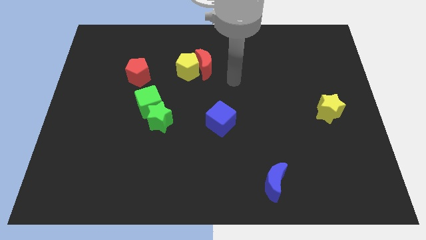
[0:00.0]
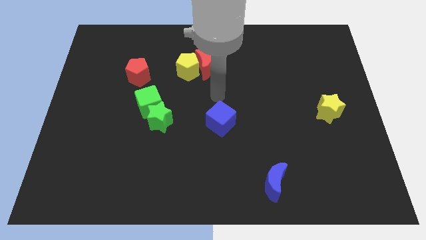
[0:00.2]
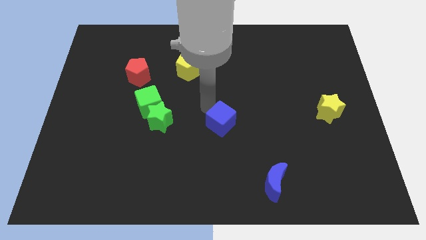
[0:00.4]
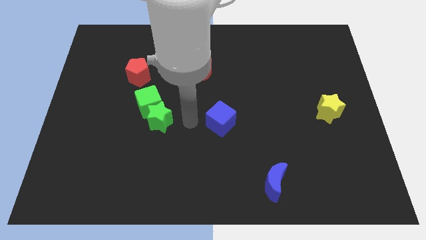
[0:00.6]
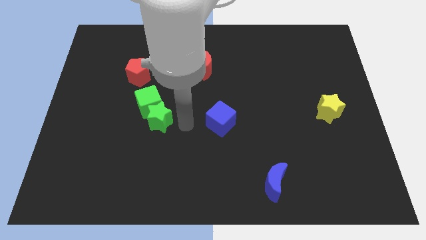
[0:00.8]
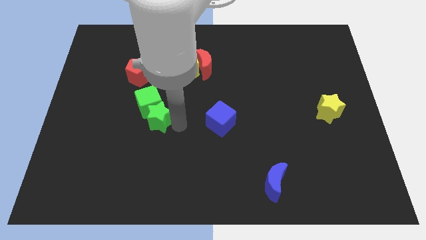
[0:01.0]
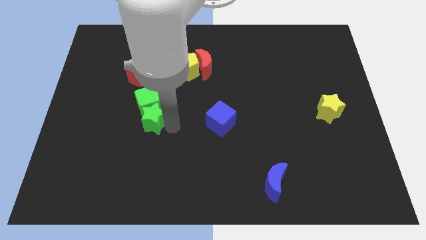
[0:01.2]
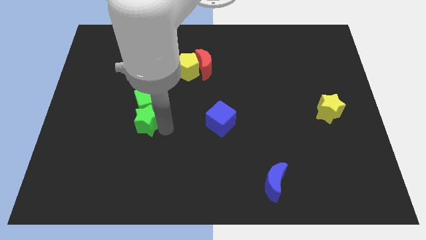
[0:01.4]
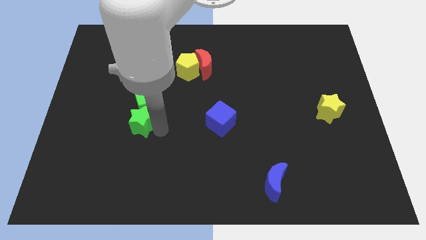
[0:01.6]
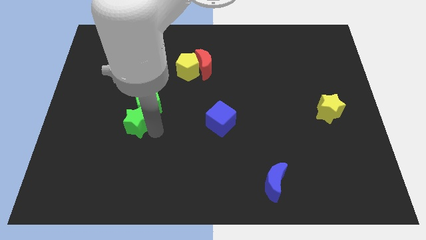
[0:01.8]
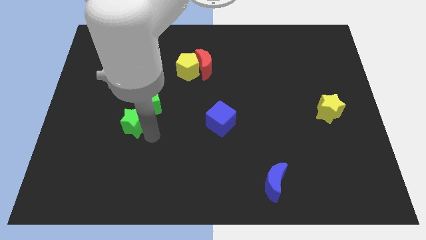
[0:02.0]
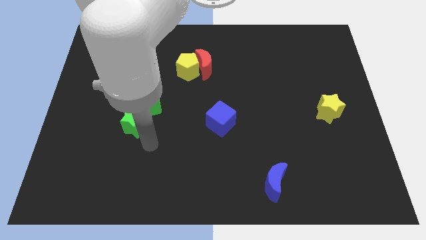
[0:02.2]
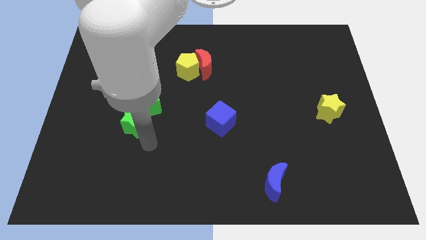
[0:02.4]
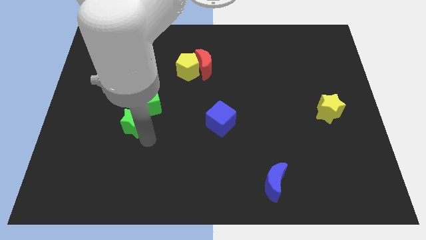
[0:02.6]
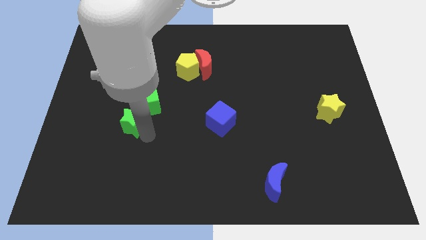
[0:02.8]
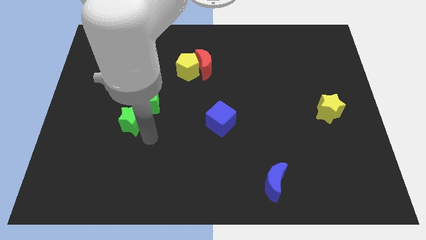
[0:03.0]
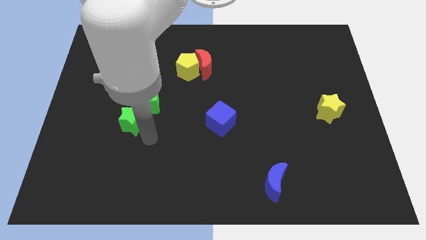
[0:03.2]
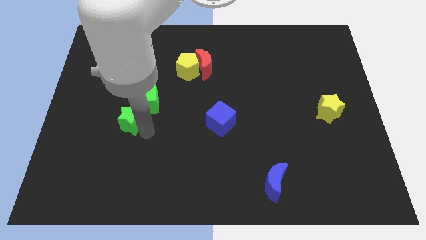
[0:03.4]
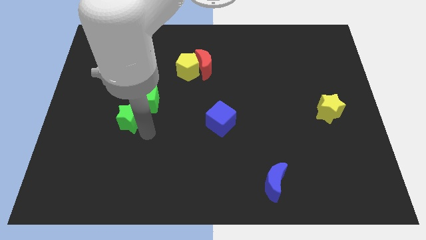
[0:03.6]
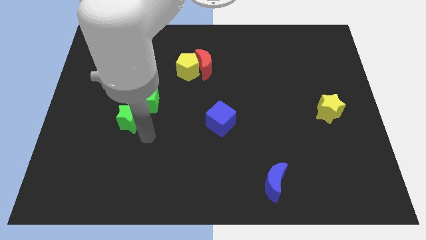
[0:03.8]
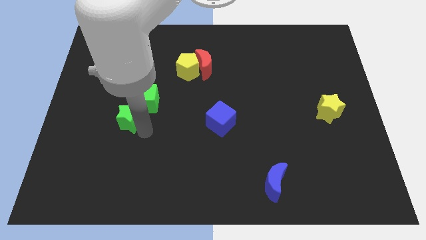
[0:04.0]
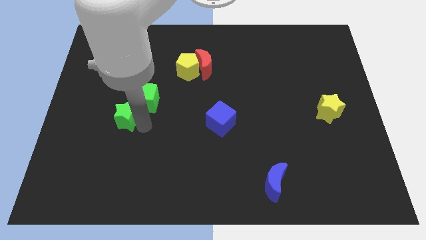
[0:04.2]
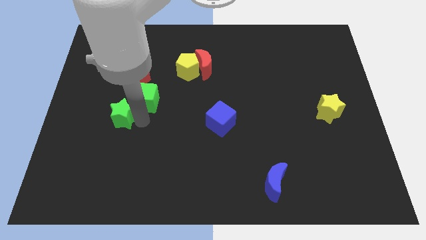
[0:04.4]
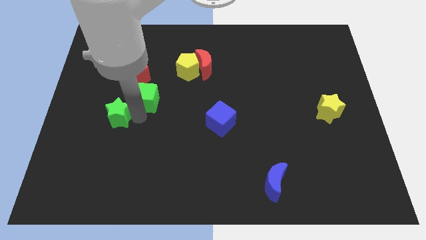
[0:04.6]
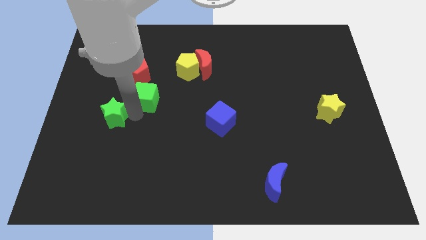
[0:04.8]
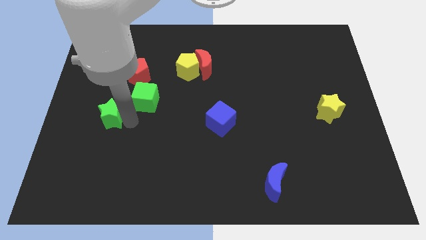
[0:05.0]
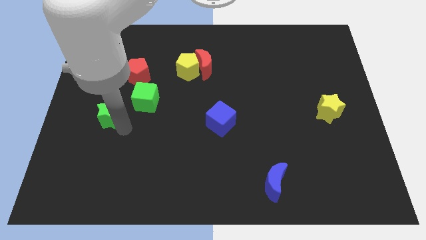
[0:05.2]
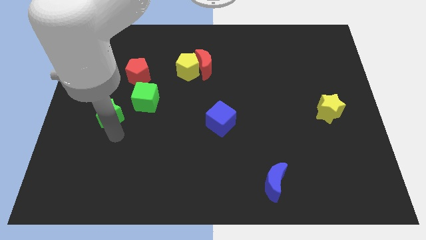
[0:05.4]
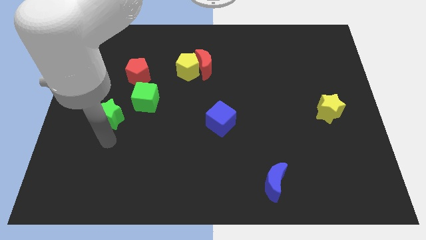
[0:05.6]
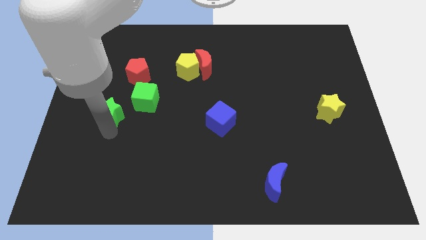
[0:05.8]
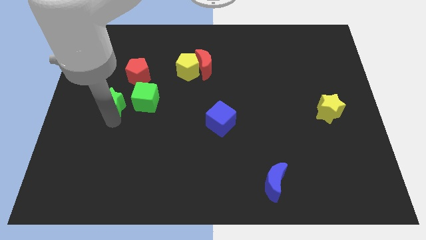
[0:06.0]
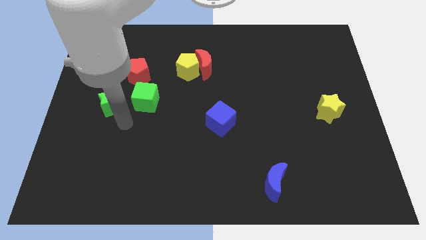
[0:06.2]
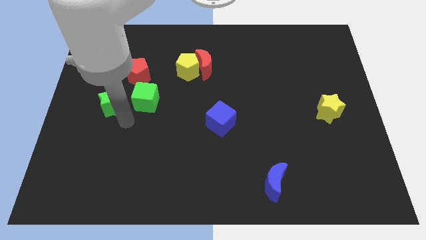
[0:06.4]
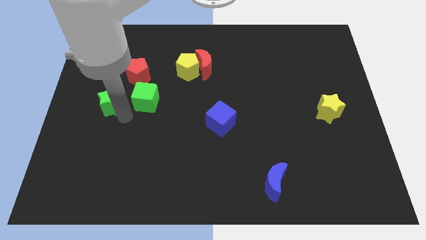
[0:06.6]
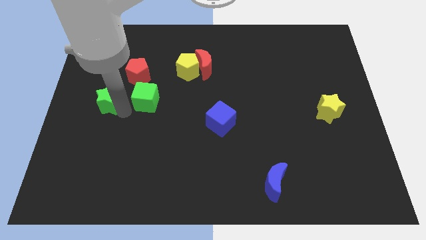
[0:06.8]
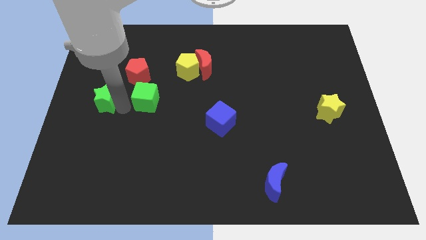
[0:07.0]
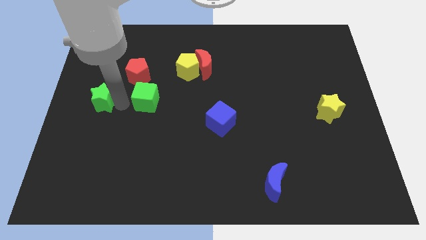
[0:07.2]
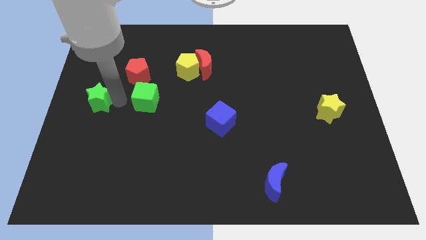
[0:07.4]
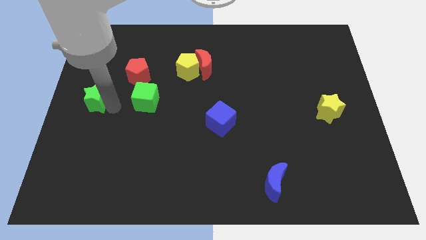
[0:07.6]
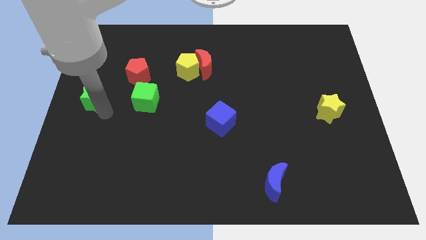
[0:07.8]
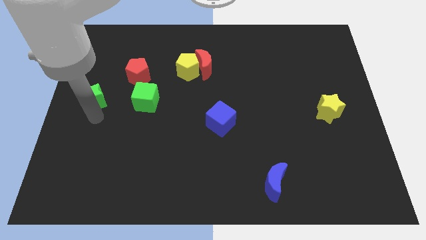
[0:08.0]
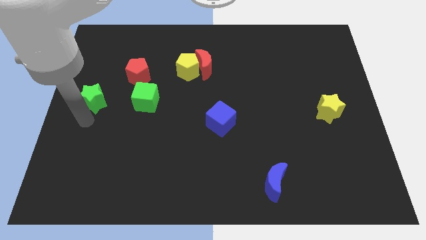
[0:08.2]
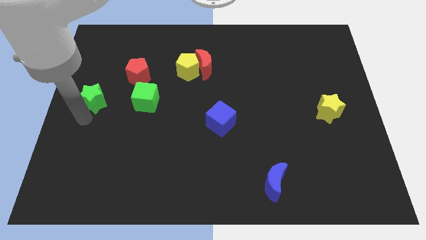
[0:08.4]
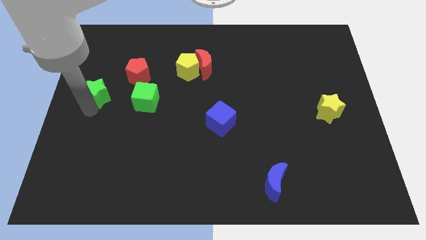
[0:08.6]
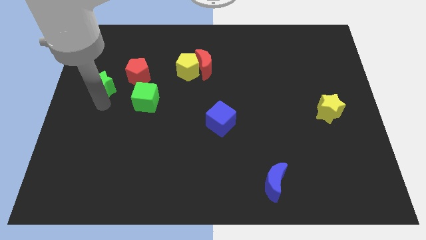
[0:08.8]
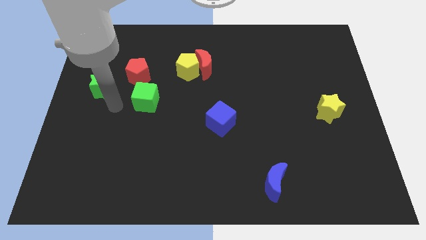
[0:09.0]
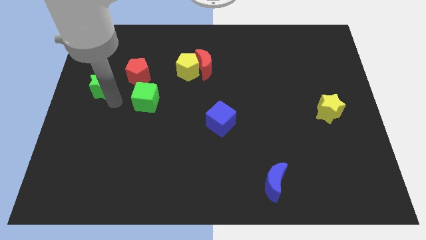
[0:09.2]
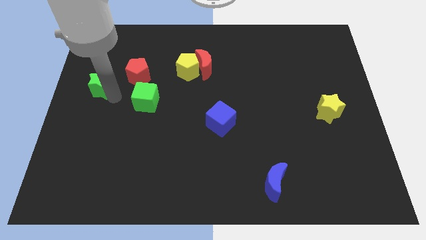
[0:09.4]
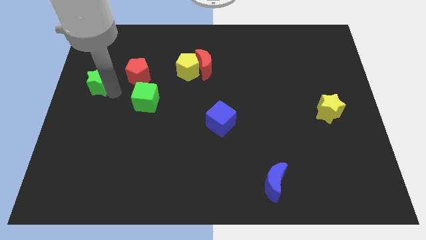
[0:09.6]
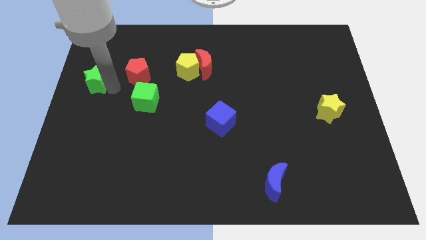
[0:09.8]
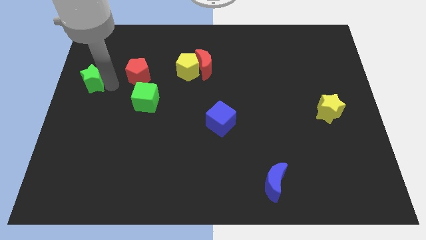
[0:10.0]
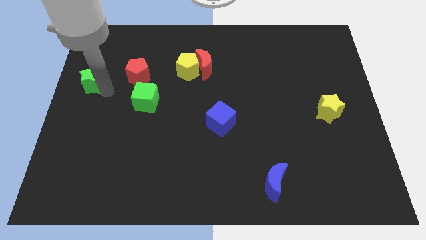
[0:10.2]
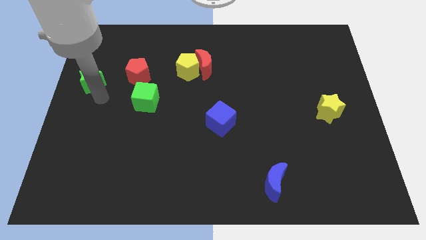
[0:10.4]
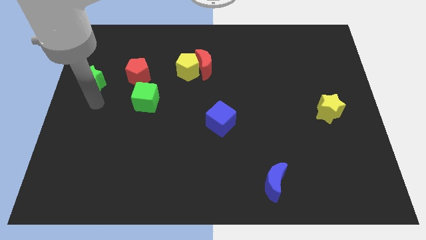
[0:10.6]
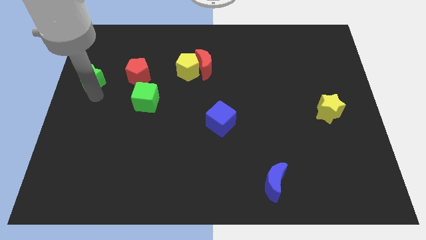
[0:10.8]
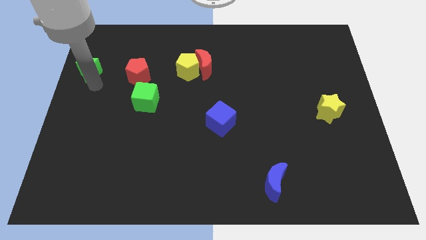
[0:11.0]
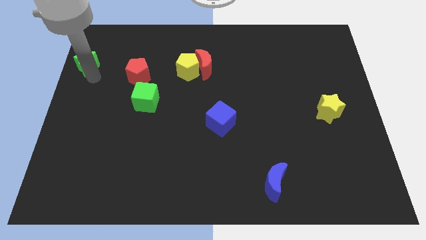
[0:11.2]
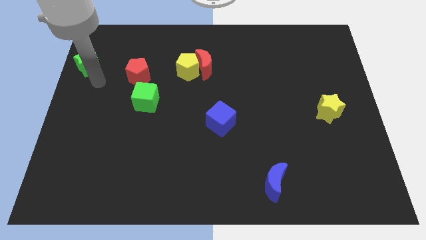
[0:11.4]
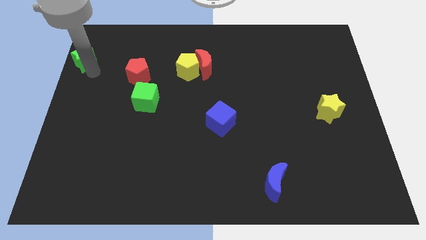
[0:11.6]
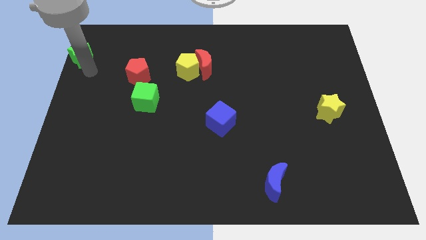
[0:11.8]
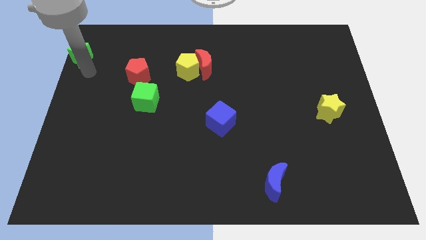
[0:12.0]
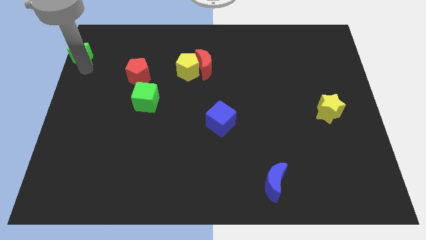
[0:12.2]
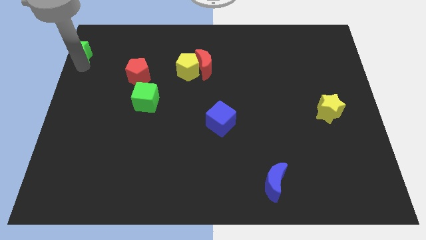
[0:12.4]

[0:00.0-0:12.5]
push the green star to the upper left corner

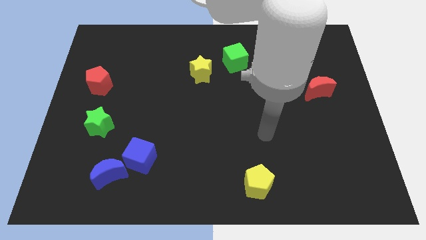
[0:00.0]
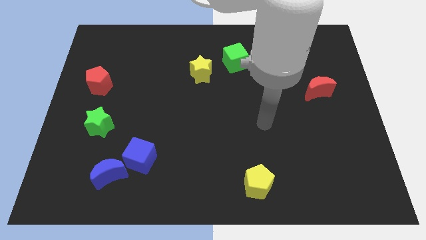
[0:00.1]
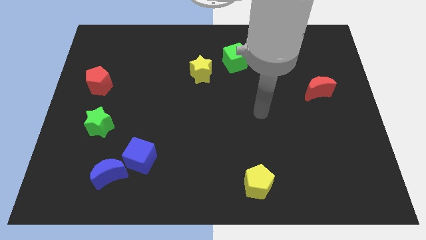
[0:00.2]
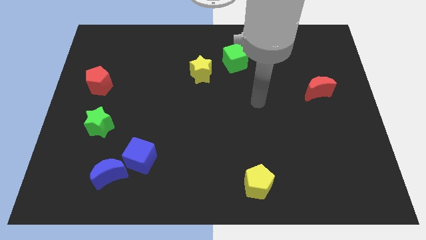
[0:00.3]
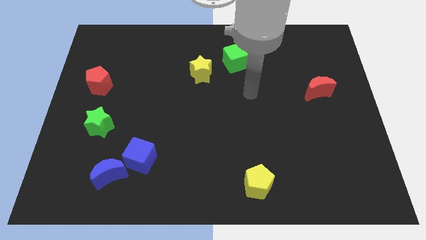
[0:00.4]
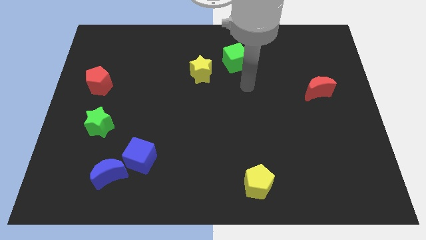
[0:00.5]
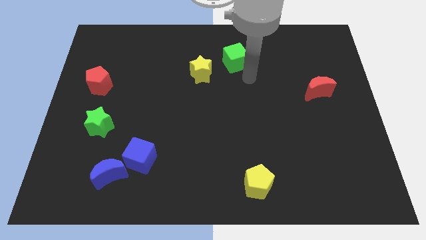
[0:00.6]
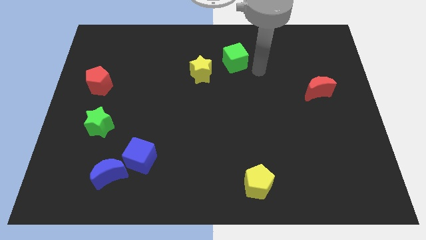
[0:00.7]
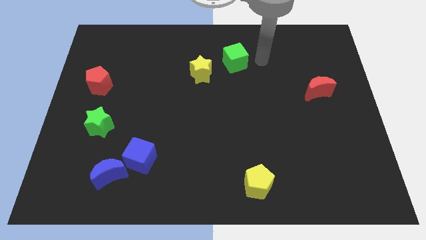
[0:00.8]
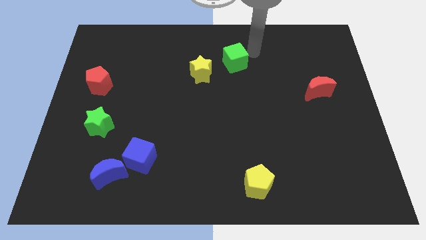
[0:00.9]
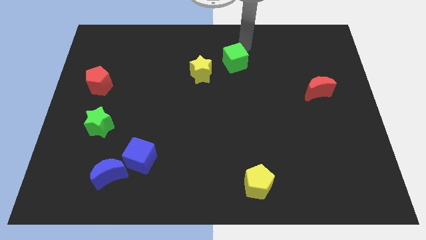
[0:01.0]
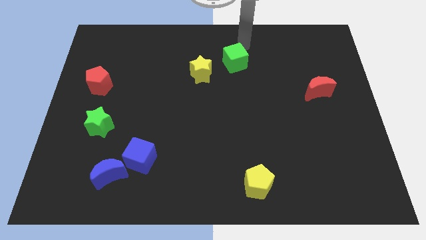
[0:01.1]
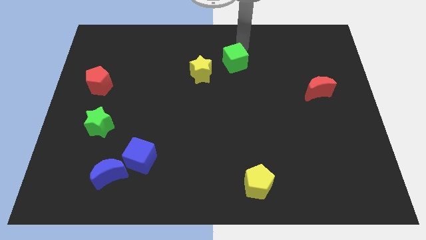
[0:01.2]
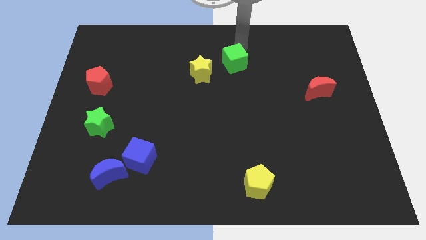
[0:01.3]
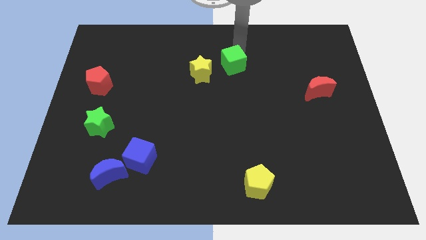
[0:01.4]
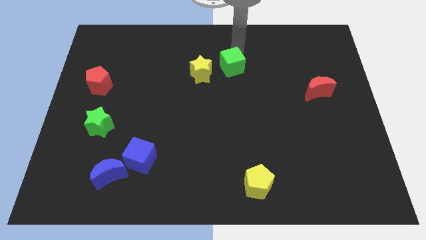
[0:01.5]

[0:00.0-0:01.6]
push the green cube to the middle of the board
